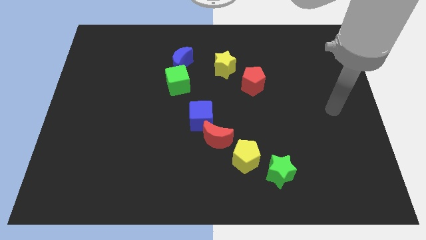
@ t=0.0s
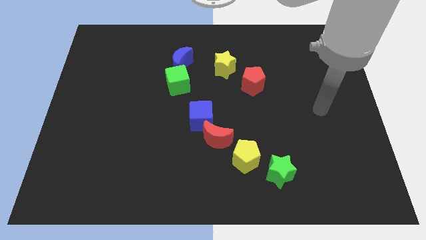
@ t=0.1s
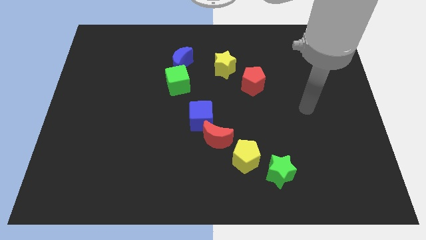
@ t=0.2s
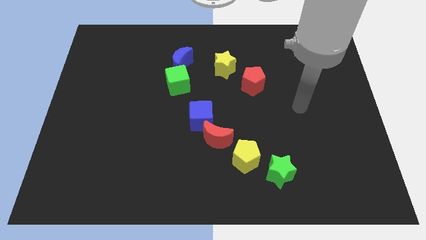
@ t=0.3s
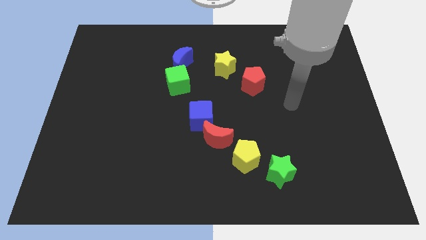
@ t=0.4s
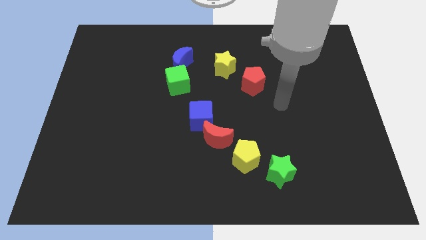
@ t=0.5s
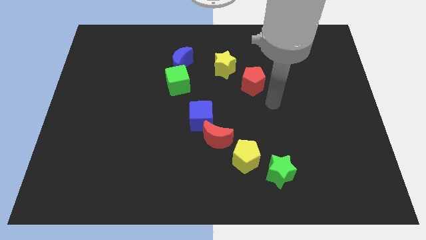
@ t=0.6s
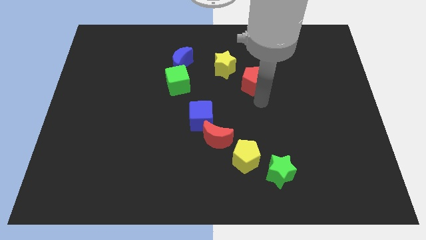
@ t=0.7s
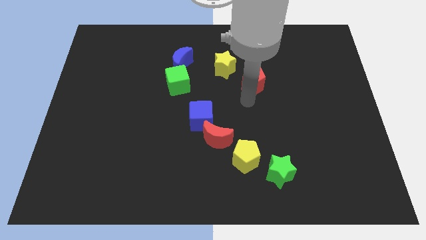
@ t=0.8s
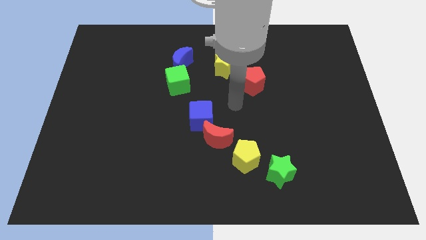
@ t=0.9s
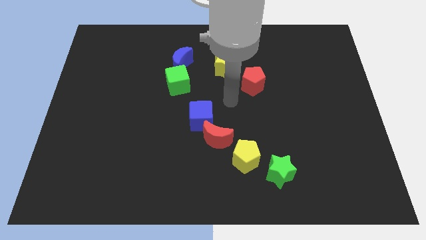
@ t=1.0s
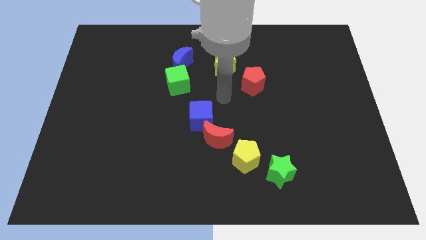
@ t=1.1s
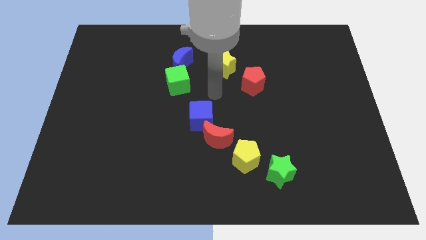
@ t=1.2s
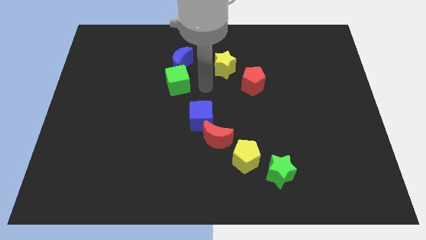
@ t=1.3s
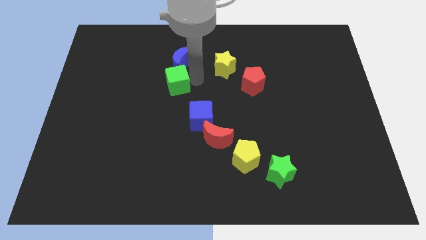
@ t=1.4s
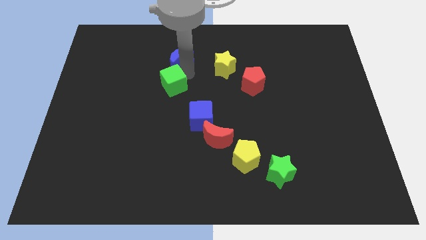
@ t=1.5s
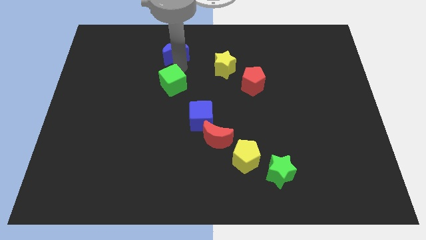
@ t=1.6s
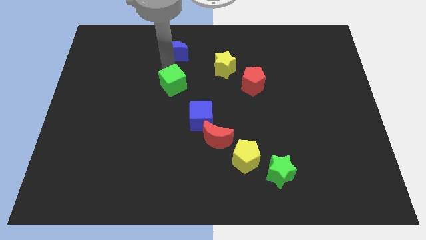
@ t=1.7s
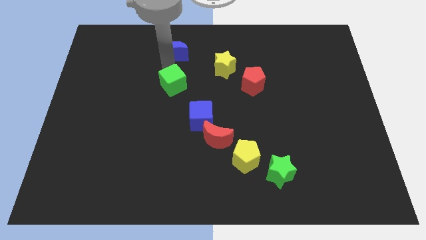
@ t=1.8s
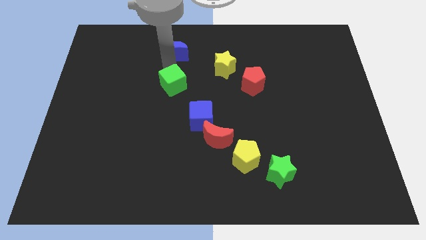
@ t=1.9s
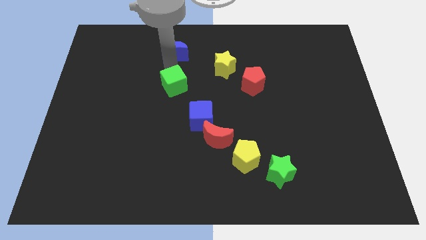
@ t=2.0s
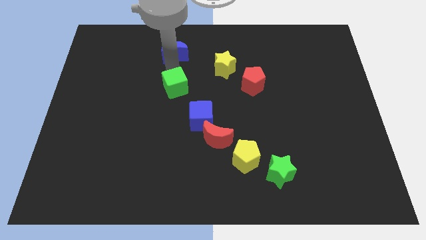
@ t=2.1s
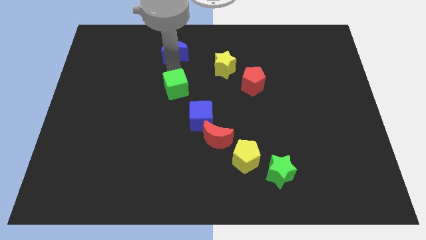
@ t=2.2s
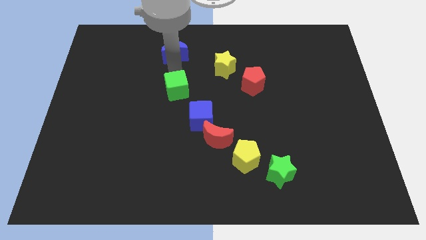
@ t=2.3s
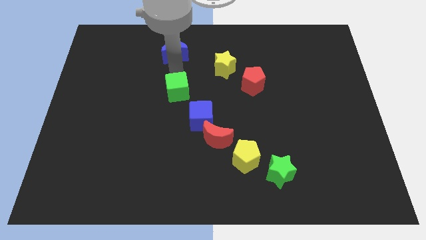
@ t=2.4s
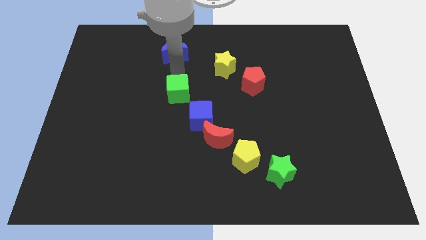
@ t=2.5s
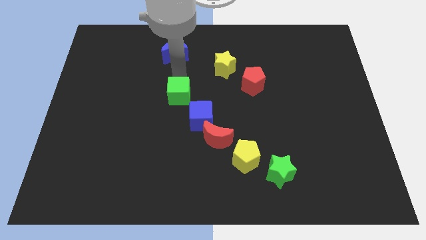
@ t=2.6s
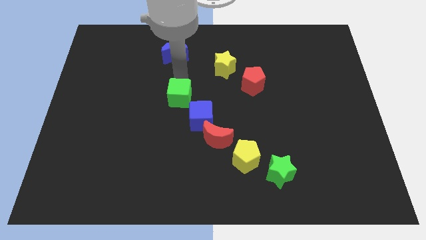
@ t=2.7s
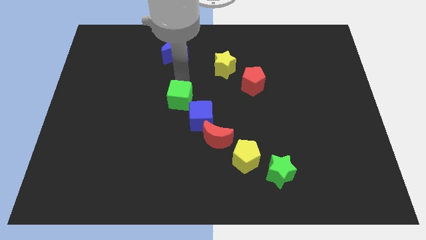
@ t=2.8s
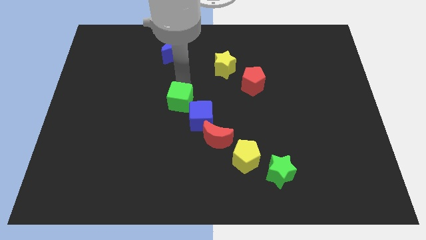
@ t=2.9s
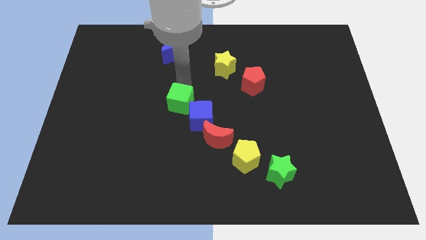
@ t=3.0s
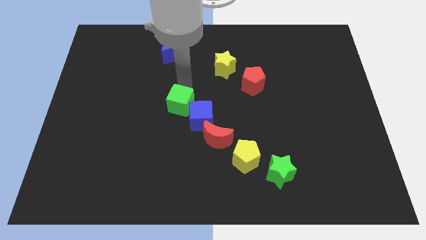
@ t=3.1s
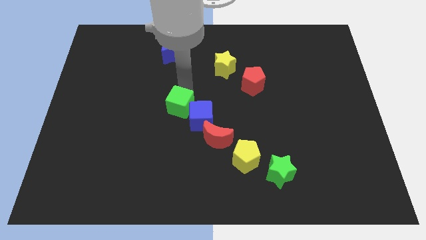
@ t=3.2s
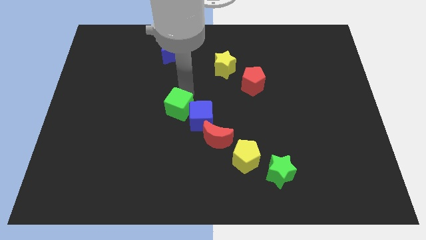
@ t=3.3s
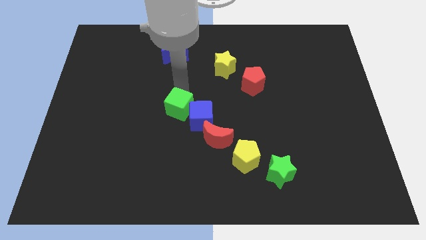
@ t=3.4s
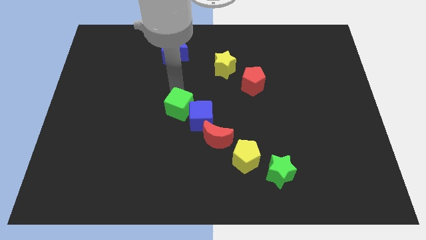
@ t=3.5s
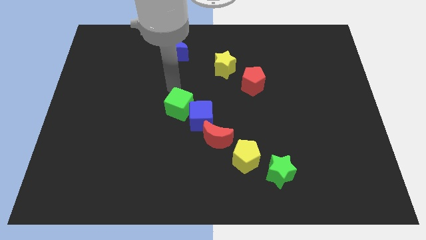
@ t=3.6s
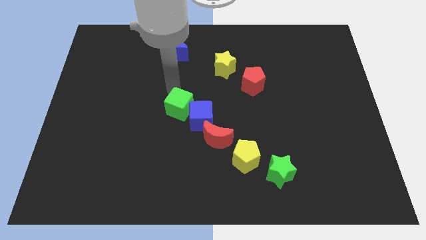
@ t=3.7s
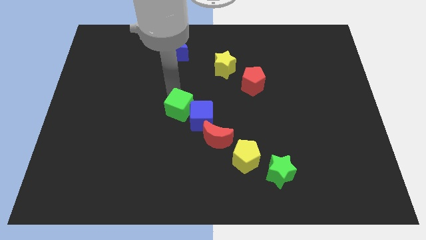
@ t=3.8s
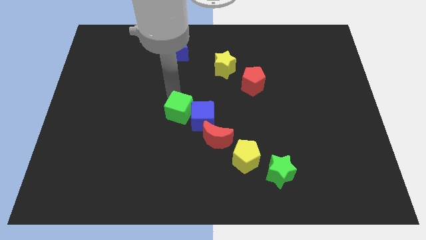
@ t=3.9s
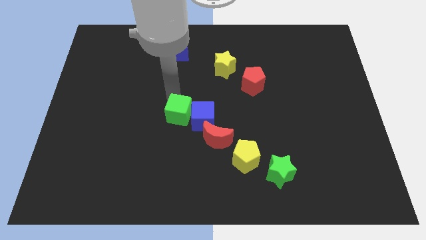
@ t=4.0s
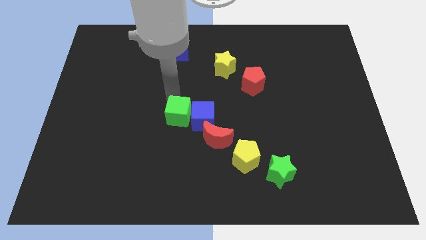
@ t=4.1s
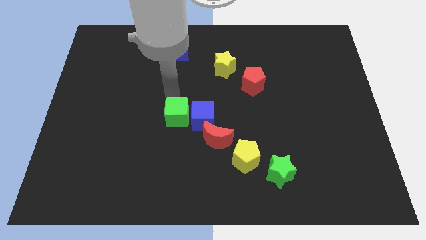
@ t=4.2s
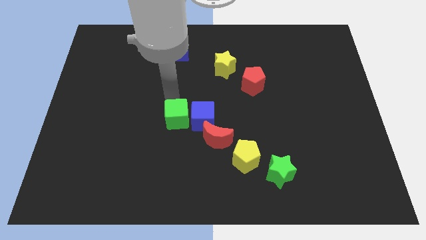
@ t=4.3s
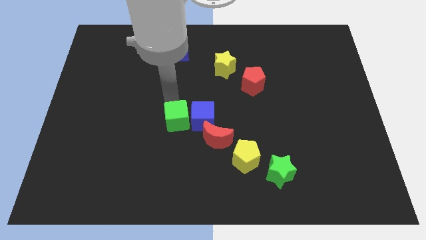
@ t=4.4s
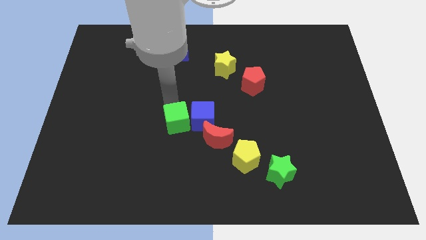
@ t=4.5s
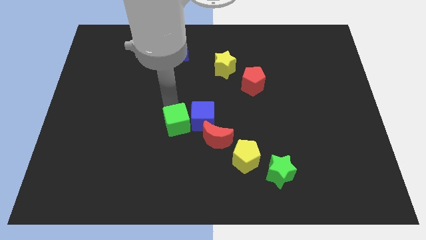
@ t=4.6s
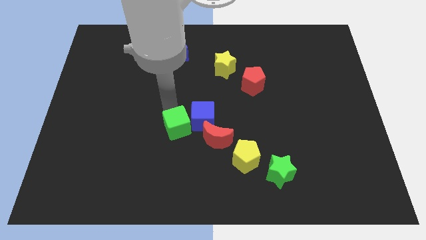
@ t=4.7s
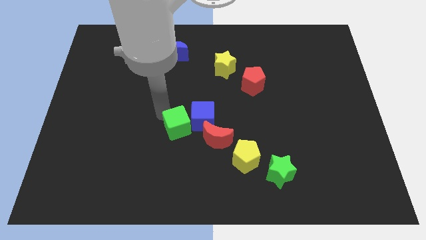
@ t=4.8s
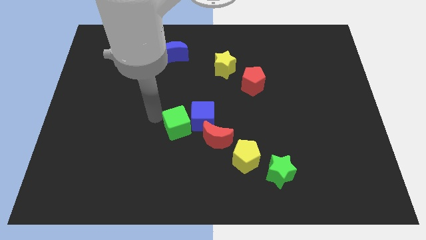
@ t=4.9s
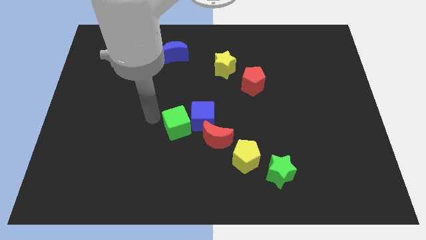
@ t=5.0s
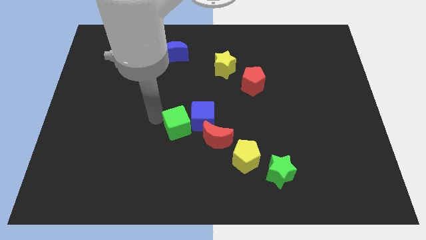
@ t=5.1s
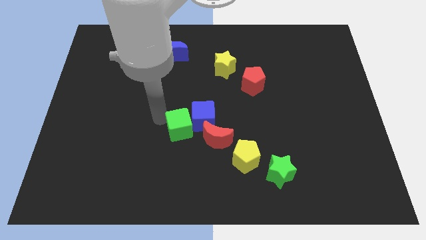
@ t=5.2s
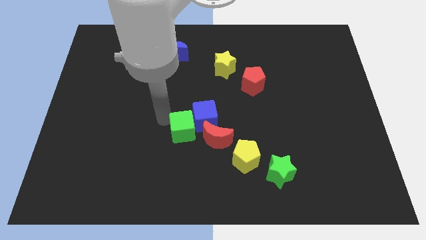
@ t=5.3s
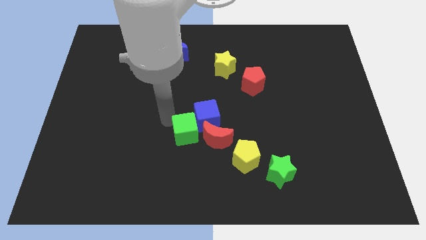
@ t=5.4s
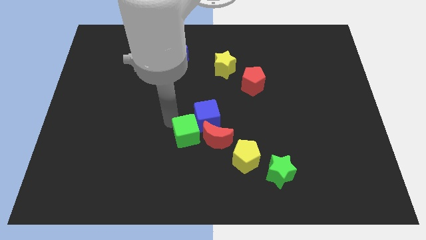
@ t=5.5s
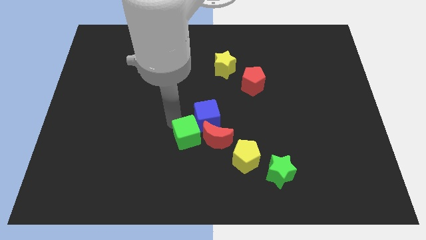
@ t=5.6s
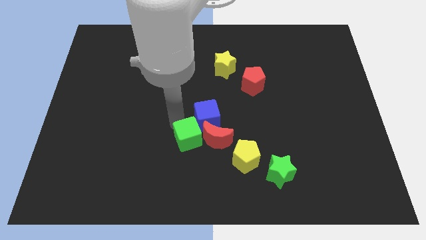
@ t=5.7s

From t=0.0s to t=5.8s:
put the green cube next to the red moon

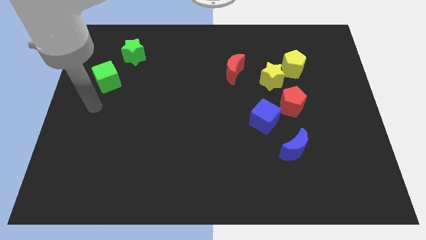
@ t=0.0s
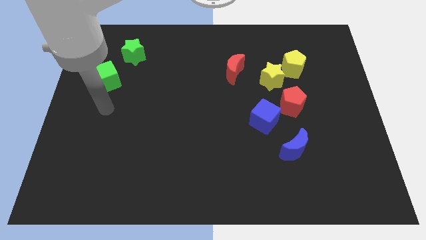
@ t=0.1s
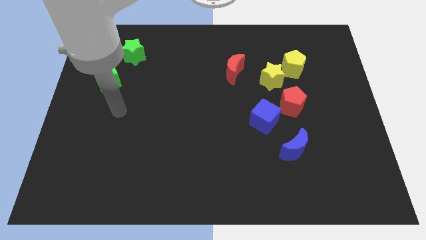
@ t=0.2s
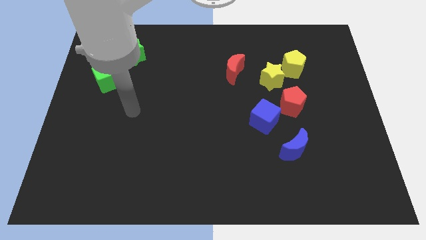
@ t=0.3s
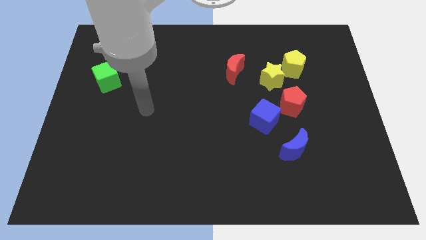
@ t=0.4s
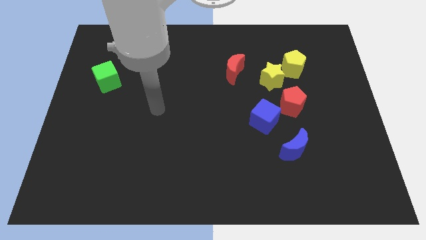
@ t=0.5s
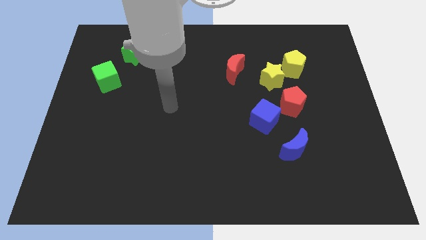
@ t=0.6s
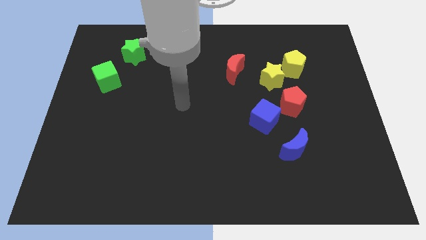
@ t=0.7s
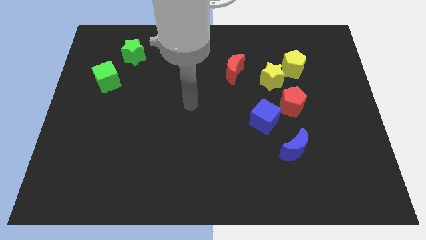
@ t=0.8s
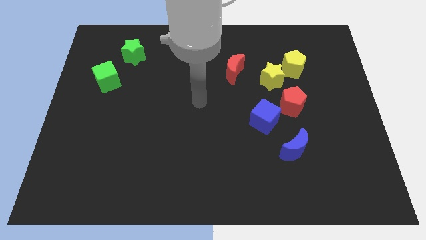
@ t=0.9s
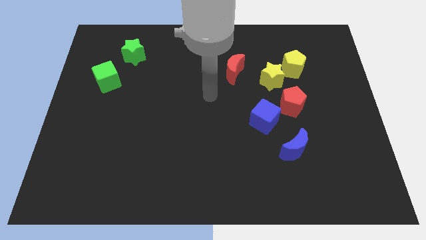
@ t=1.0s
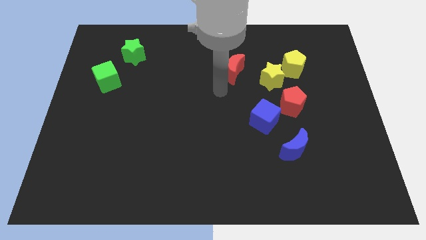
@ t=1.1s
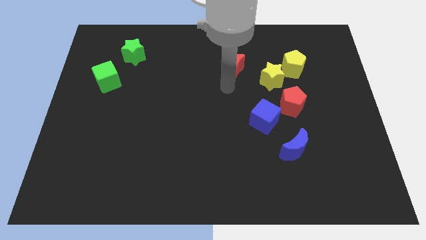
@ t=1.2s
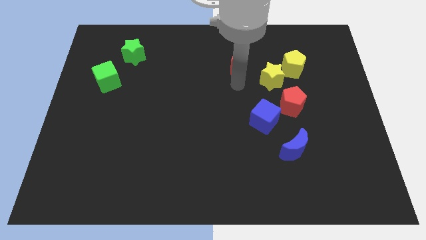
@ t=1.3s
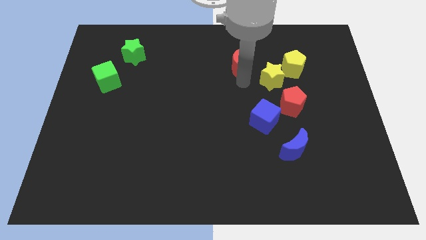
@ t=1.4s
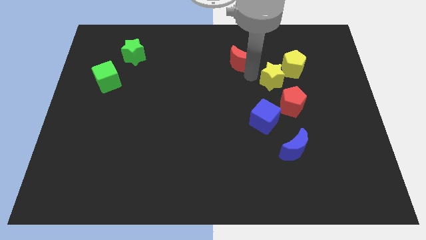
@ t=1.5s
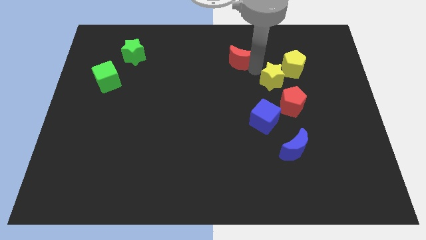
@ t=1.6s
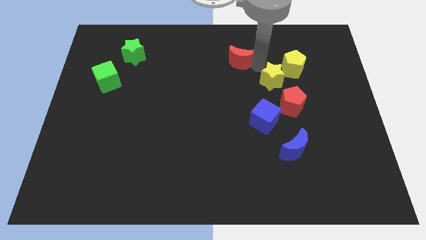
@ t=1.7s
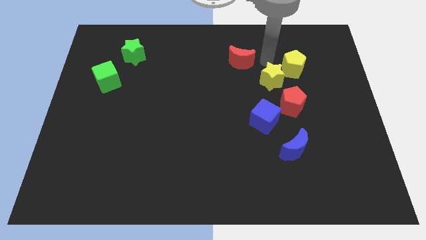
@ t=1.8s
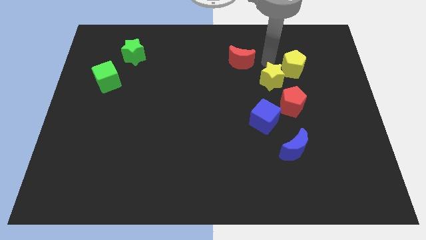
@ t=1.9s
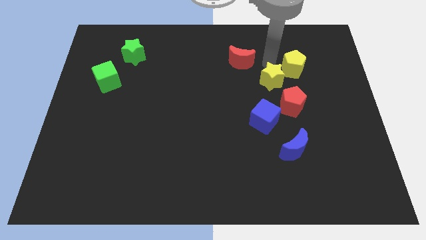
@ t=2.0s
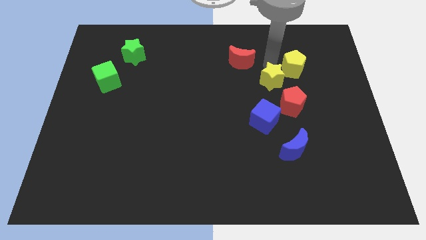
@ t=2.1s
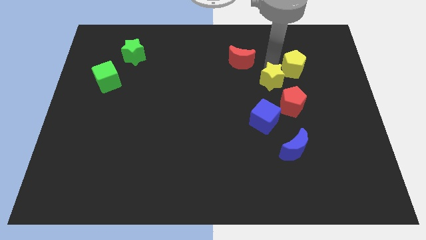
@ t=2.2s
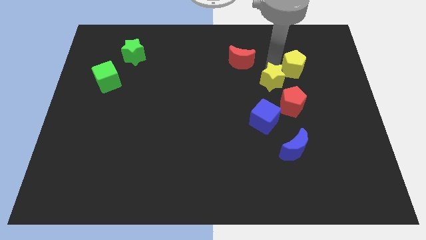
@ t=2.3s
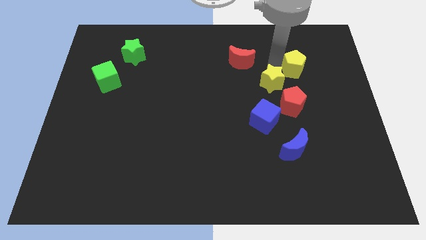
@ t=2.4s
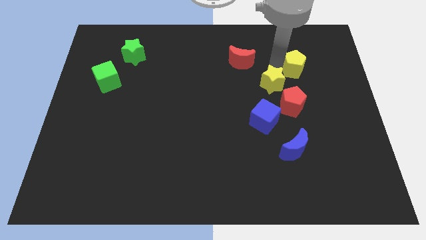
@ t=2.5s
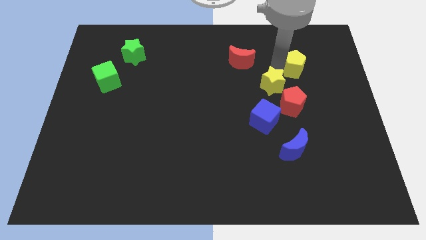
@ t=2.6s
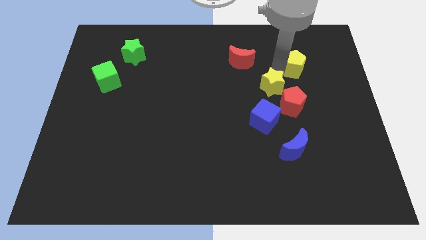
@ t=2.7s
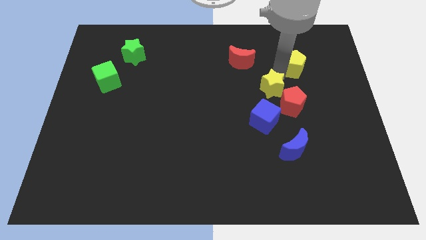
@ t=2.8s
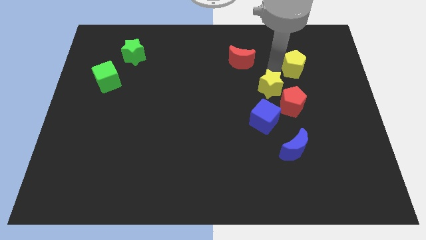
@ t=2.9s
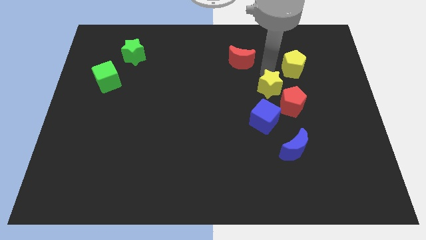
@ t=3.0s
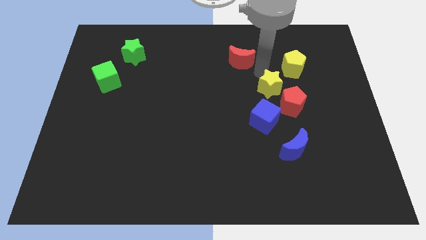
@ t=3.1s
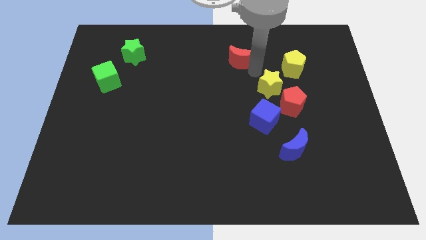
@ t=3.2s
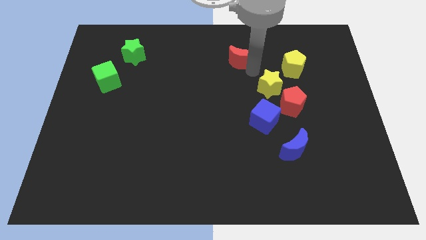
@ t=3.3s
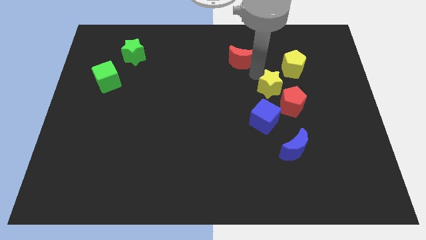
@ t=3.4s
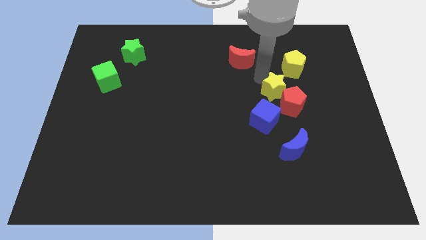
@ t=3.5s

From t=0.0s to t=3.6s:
push the yellow star close to the red pentagon
